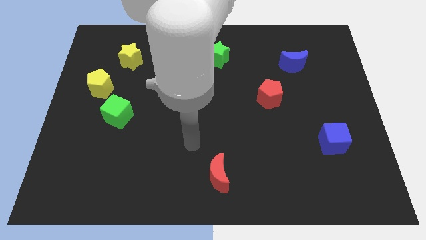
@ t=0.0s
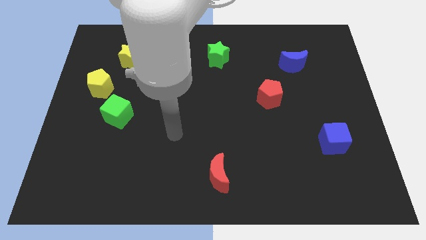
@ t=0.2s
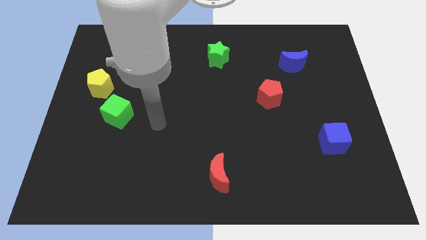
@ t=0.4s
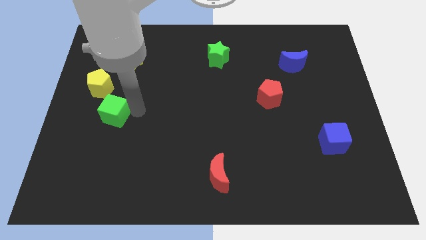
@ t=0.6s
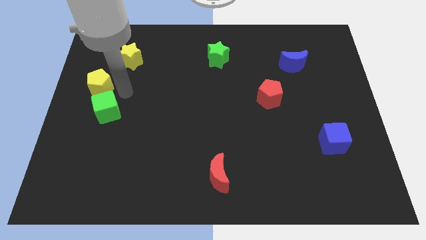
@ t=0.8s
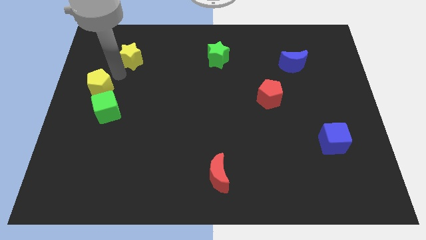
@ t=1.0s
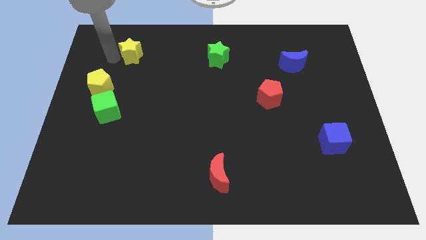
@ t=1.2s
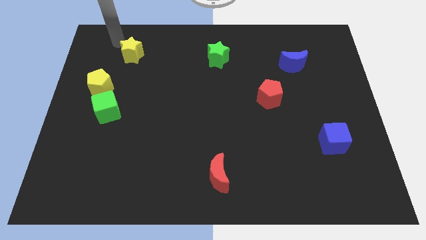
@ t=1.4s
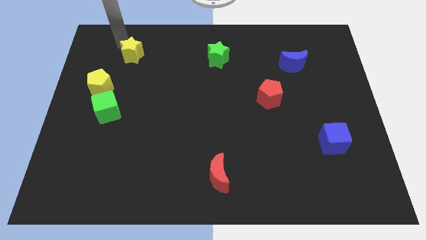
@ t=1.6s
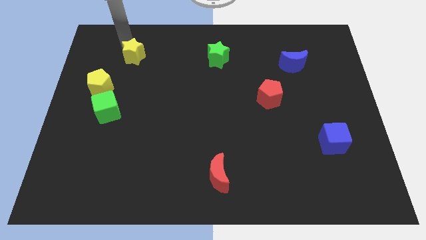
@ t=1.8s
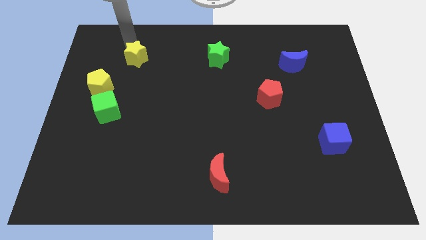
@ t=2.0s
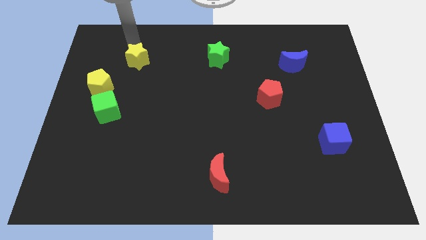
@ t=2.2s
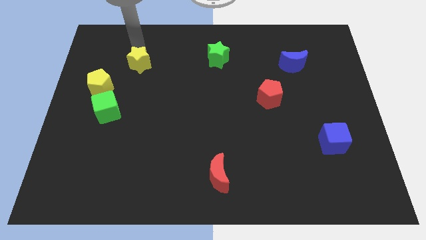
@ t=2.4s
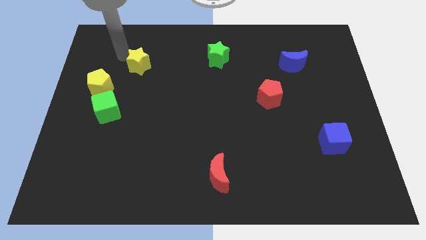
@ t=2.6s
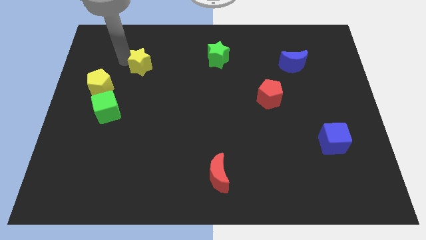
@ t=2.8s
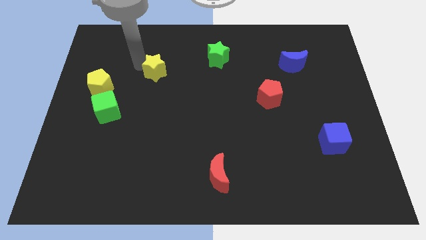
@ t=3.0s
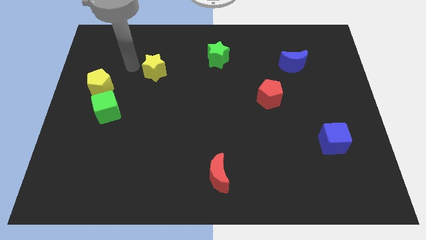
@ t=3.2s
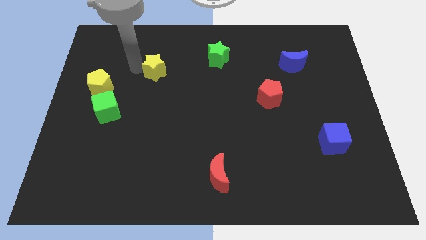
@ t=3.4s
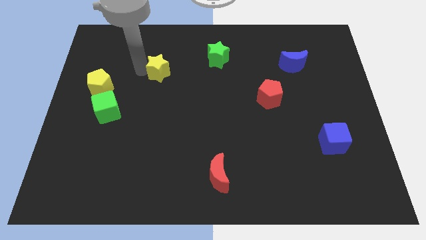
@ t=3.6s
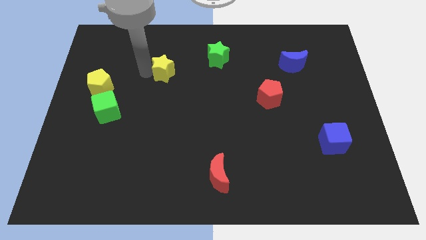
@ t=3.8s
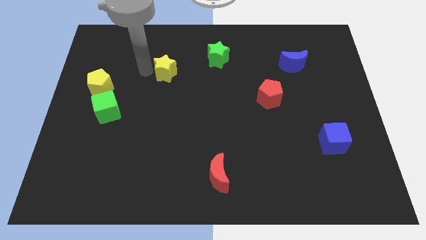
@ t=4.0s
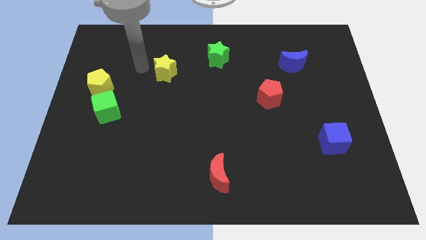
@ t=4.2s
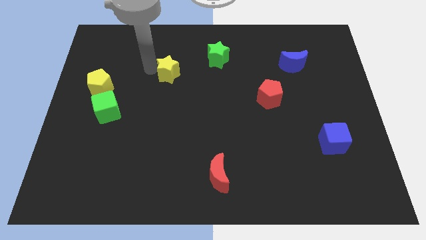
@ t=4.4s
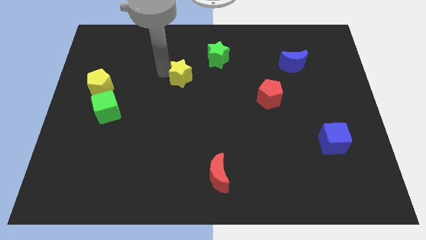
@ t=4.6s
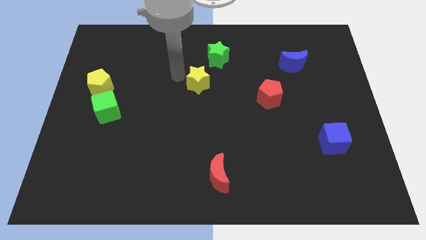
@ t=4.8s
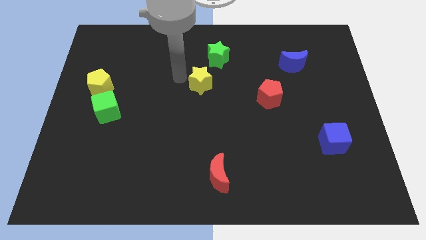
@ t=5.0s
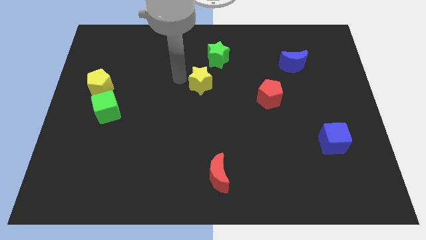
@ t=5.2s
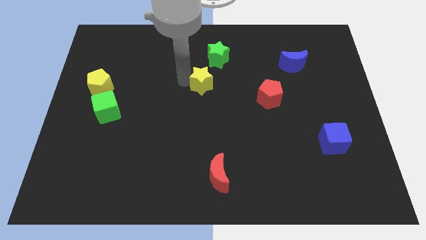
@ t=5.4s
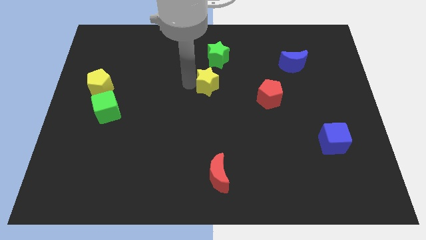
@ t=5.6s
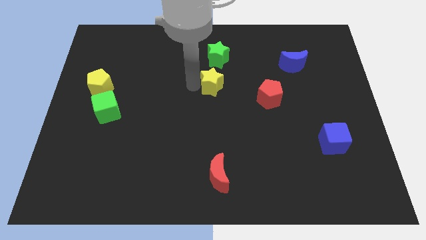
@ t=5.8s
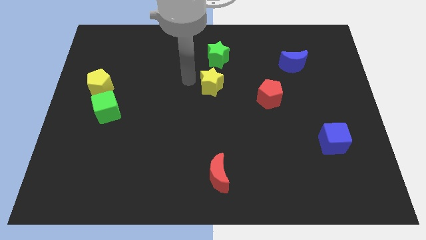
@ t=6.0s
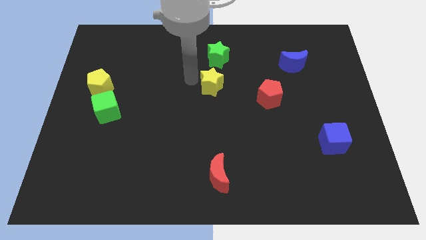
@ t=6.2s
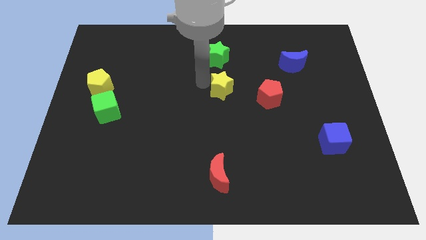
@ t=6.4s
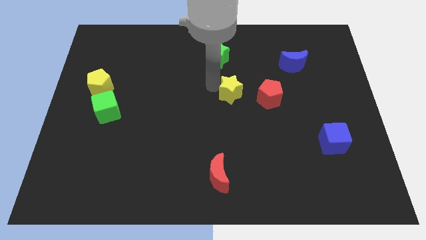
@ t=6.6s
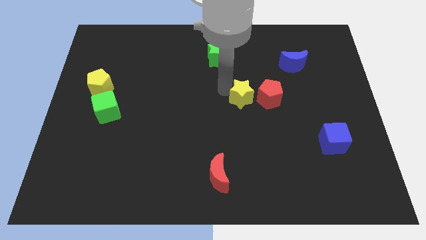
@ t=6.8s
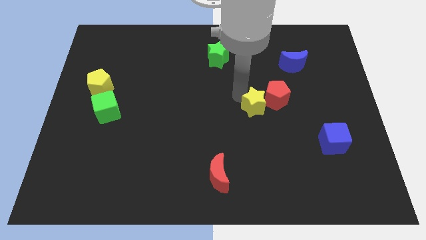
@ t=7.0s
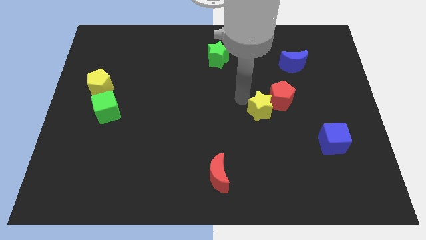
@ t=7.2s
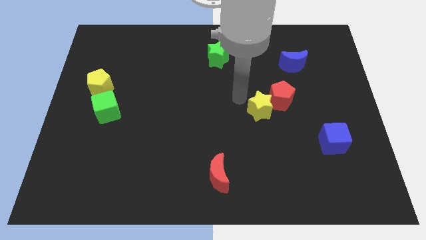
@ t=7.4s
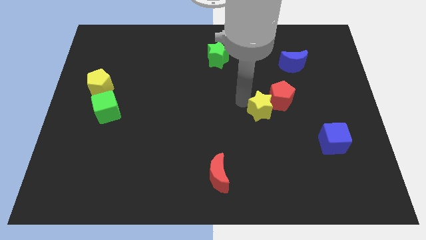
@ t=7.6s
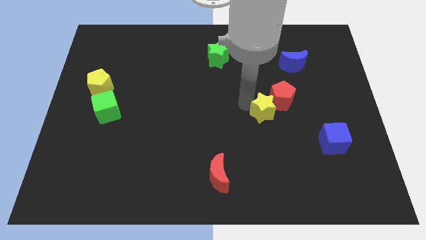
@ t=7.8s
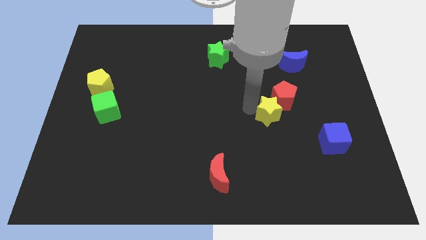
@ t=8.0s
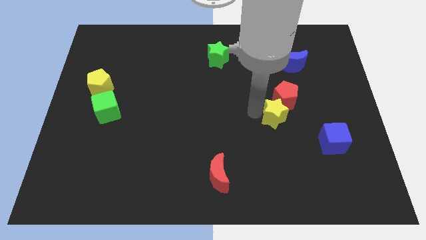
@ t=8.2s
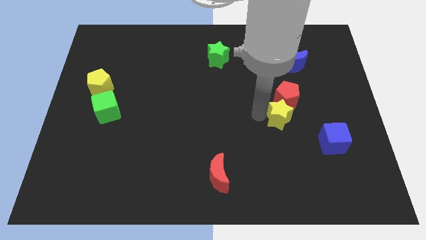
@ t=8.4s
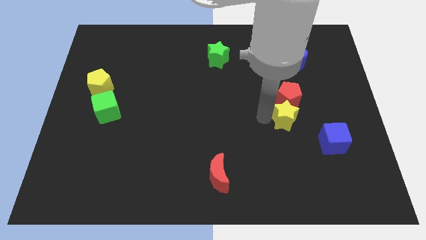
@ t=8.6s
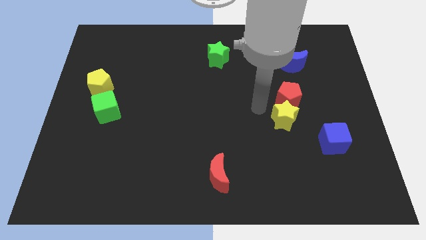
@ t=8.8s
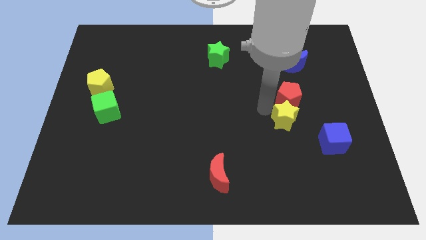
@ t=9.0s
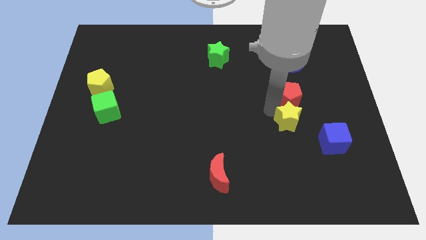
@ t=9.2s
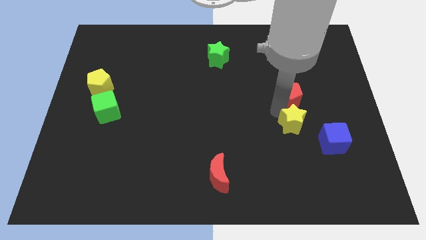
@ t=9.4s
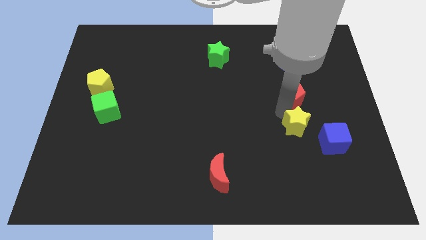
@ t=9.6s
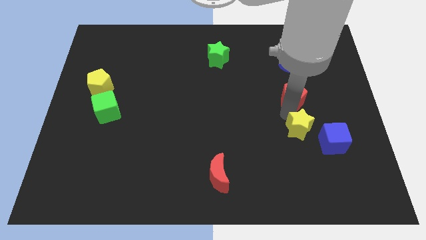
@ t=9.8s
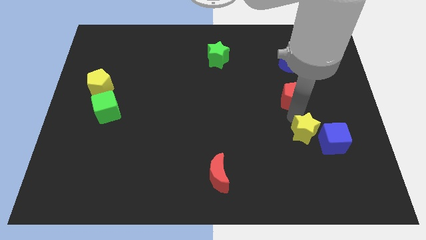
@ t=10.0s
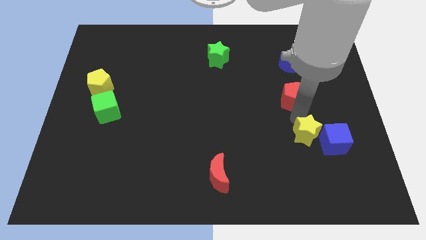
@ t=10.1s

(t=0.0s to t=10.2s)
slide the yellow star next to the blue cube

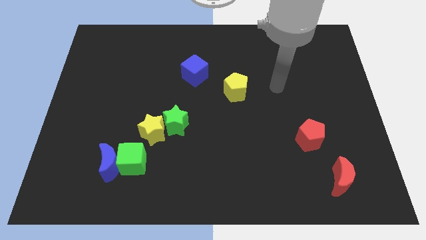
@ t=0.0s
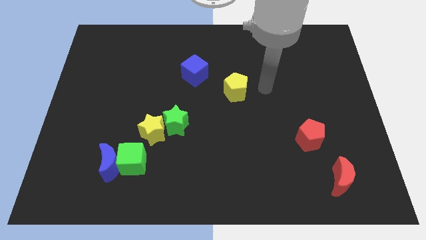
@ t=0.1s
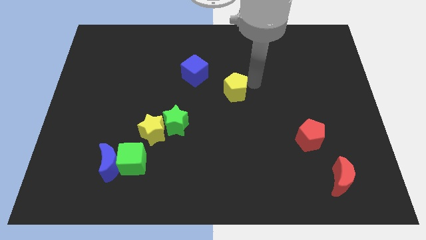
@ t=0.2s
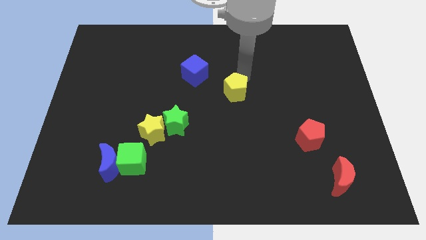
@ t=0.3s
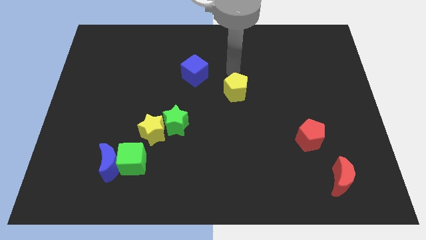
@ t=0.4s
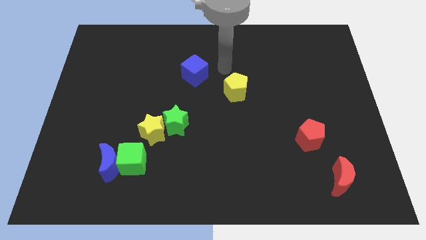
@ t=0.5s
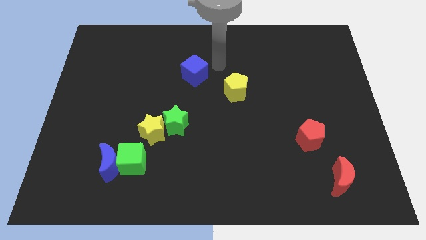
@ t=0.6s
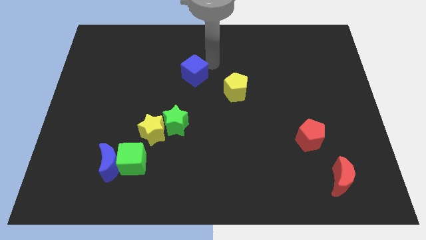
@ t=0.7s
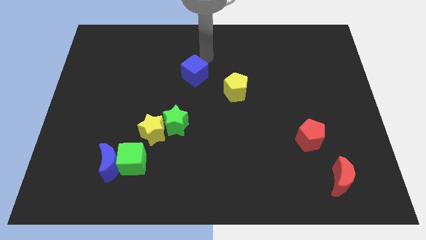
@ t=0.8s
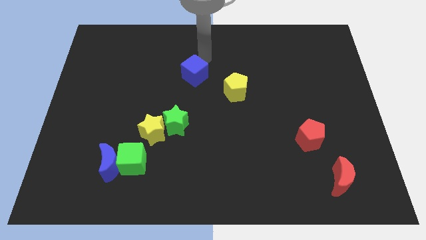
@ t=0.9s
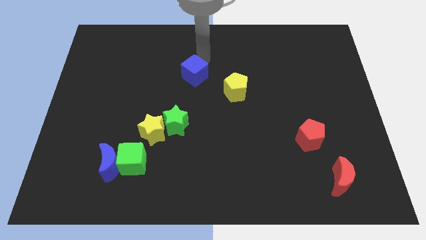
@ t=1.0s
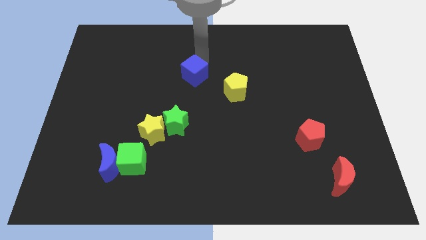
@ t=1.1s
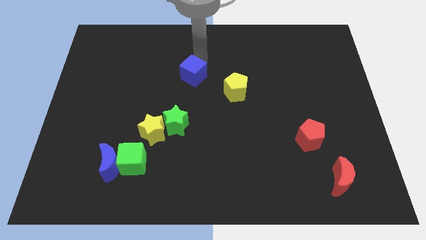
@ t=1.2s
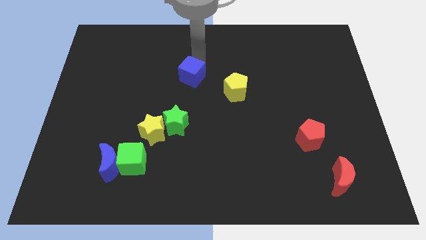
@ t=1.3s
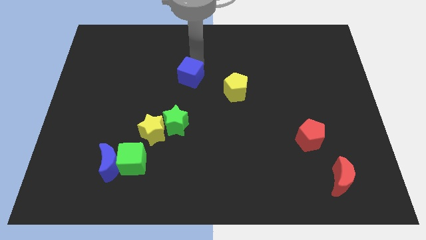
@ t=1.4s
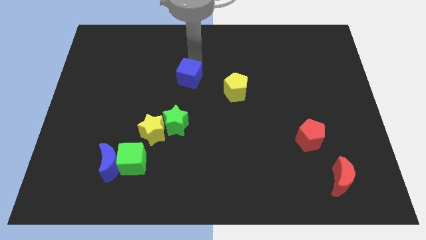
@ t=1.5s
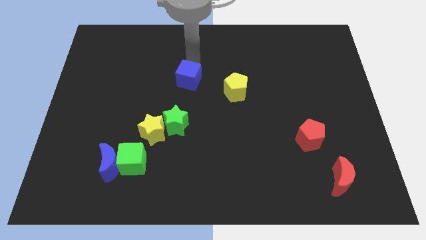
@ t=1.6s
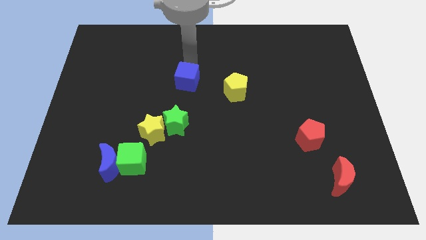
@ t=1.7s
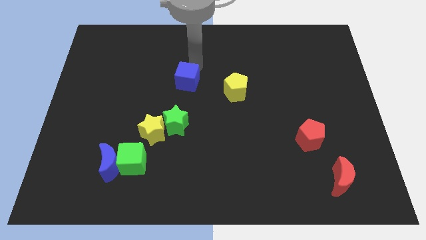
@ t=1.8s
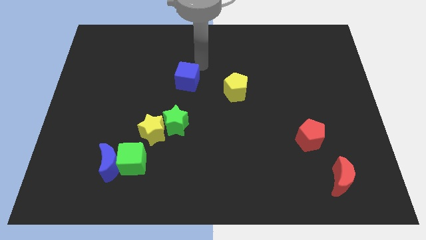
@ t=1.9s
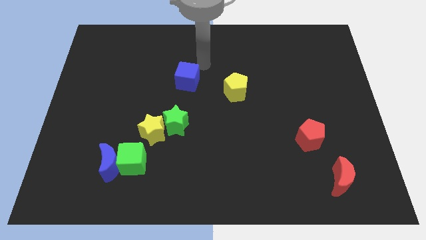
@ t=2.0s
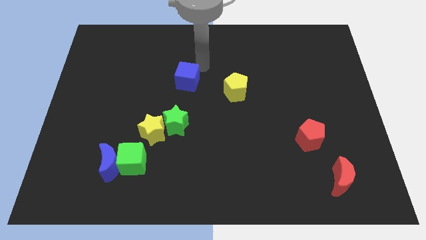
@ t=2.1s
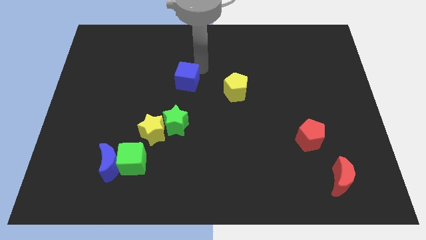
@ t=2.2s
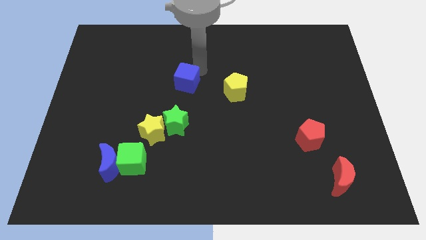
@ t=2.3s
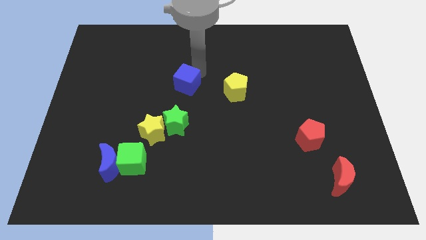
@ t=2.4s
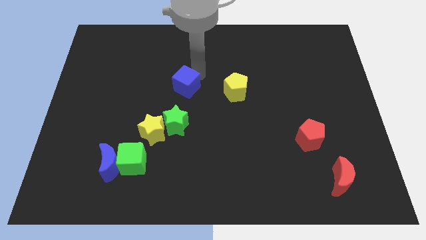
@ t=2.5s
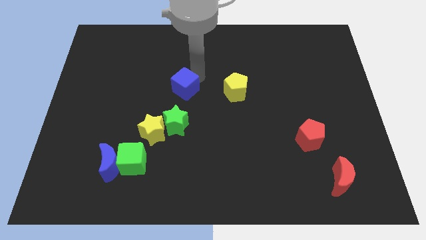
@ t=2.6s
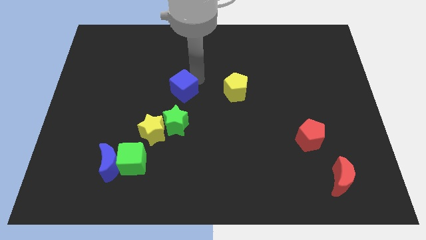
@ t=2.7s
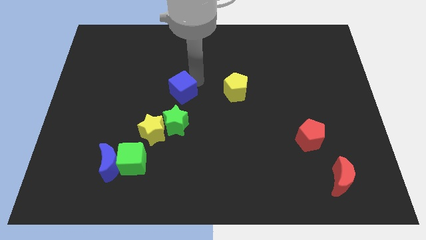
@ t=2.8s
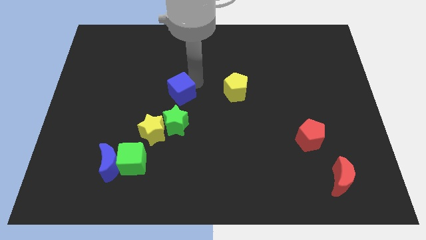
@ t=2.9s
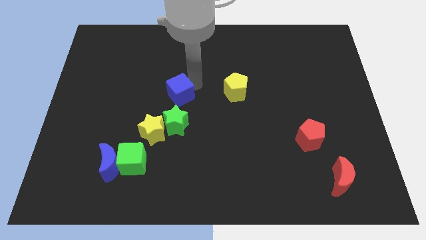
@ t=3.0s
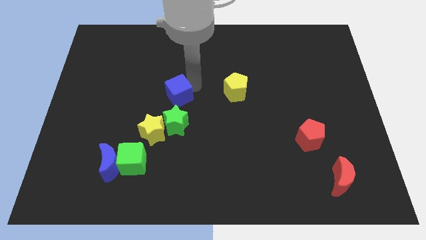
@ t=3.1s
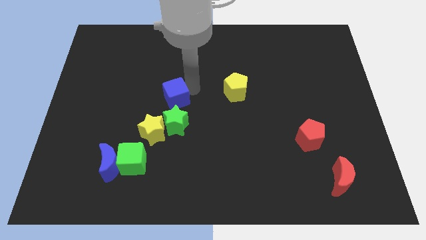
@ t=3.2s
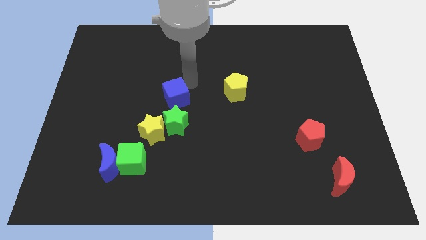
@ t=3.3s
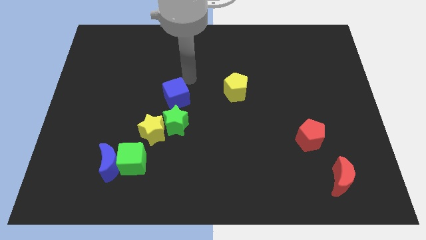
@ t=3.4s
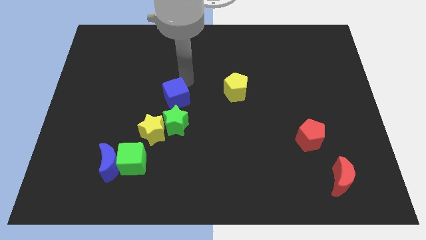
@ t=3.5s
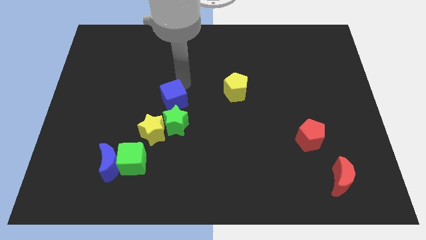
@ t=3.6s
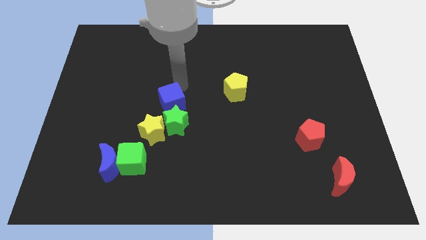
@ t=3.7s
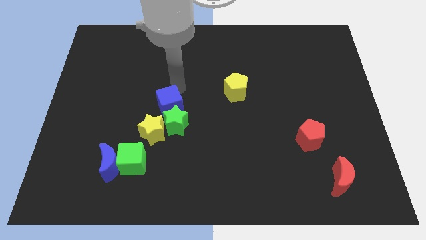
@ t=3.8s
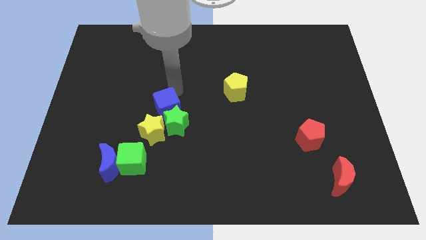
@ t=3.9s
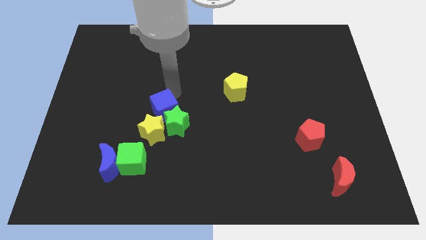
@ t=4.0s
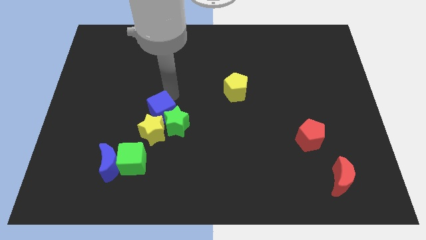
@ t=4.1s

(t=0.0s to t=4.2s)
move the blue cube to the yellow star
